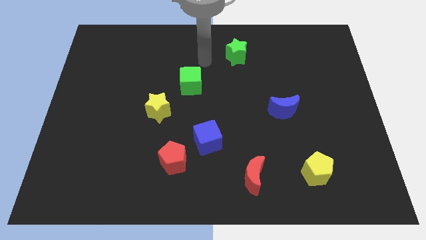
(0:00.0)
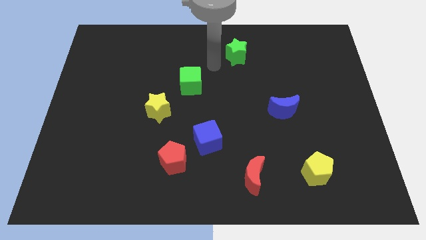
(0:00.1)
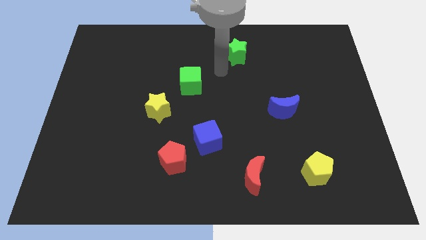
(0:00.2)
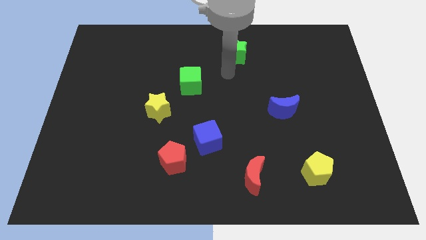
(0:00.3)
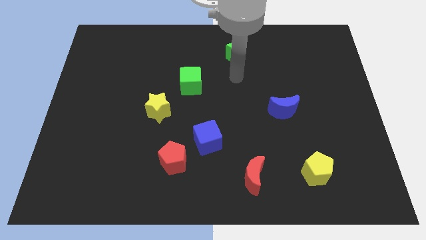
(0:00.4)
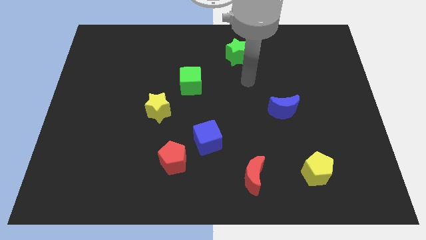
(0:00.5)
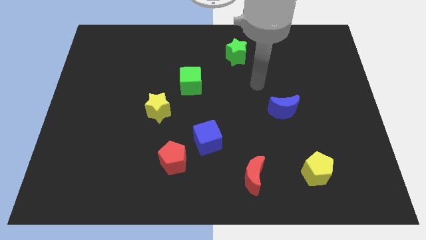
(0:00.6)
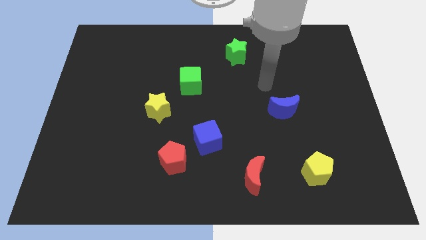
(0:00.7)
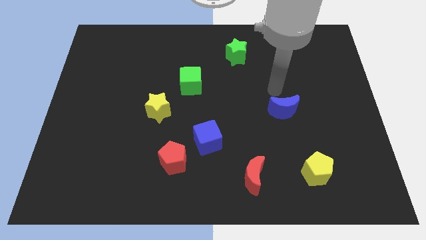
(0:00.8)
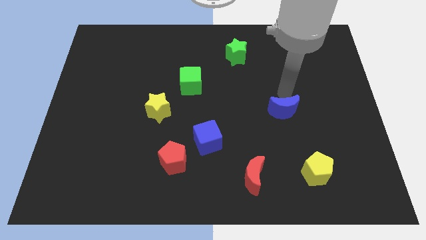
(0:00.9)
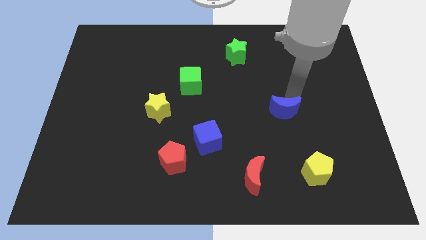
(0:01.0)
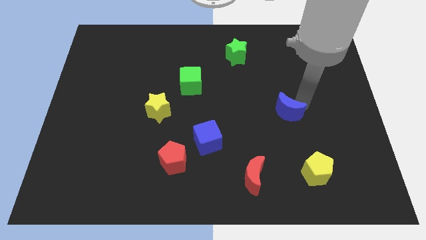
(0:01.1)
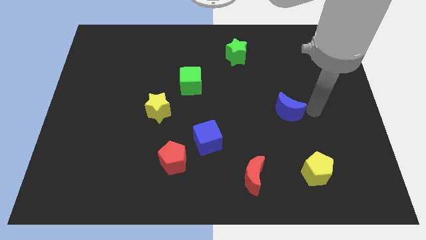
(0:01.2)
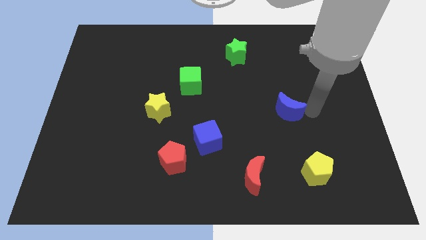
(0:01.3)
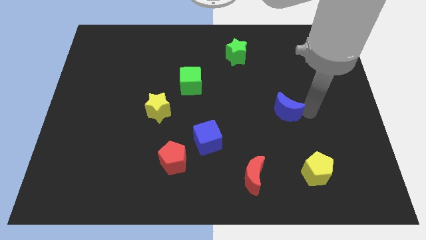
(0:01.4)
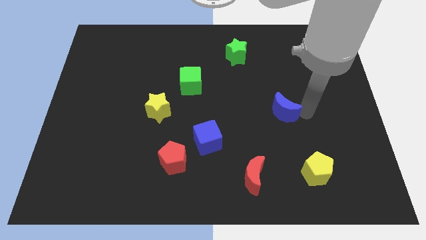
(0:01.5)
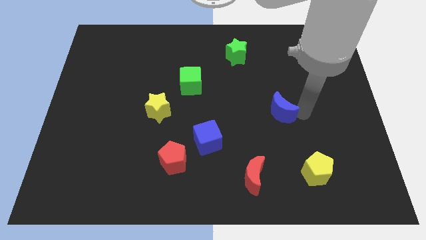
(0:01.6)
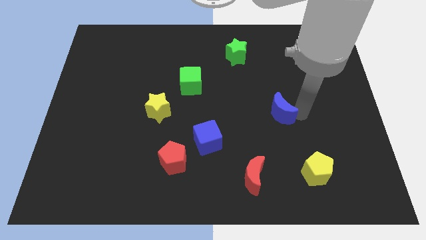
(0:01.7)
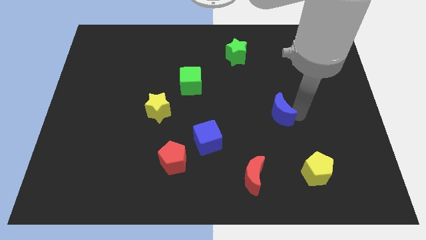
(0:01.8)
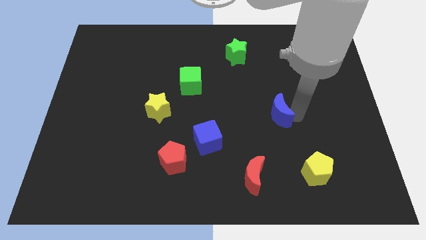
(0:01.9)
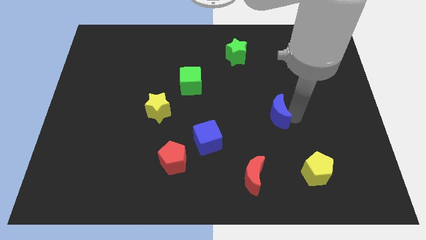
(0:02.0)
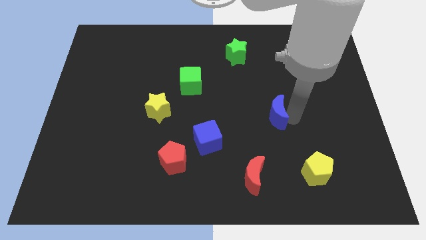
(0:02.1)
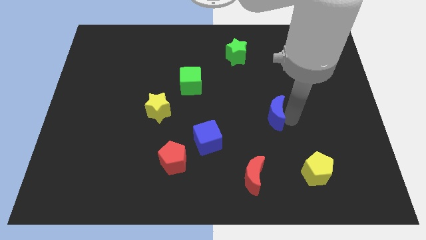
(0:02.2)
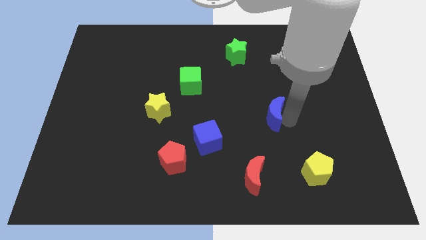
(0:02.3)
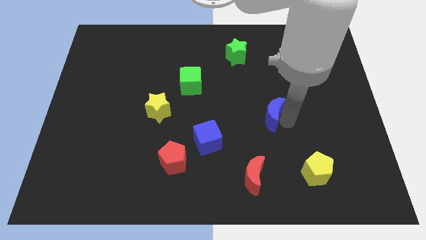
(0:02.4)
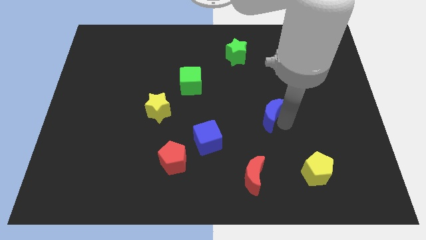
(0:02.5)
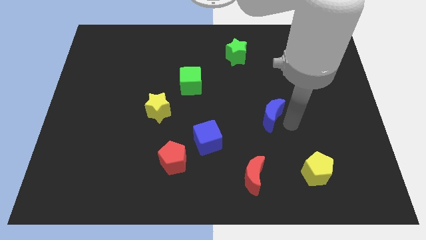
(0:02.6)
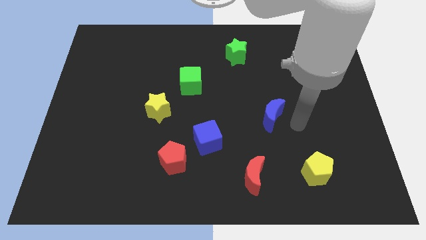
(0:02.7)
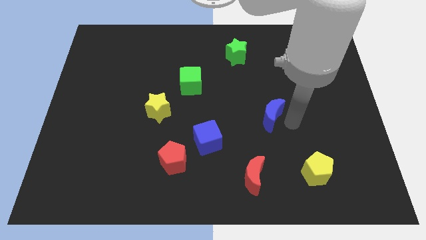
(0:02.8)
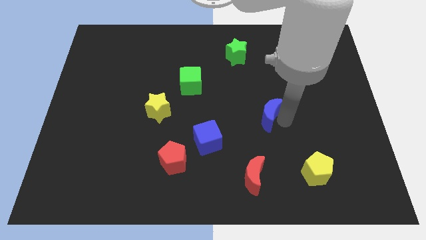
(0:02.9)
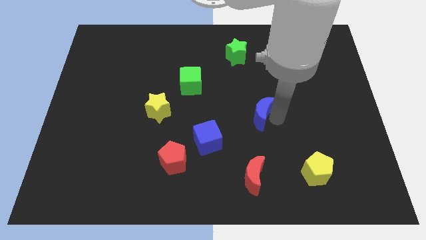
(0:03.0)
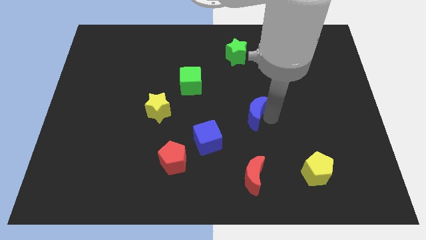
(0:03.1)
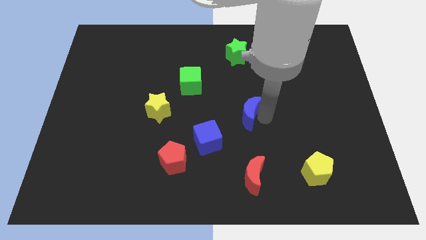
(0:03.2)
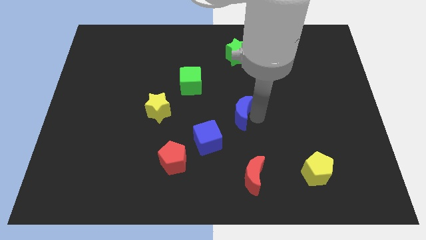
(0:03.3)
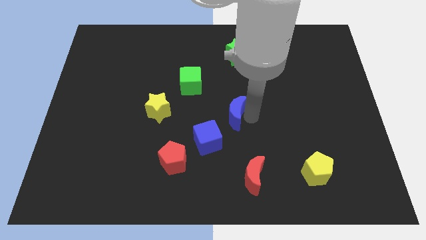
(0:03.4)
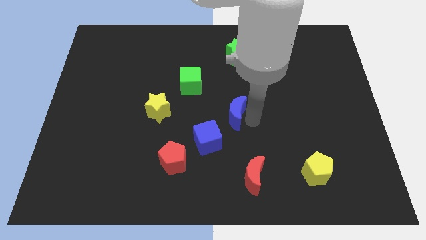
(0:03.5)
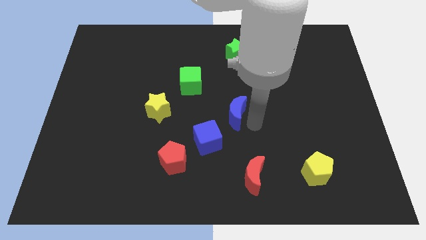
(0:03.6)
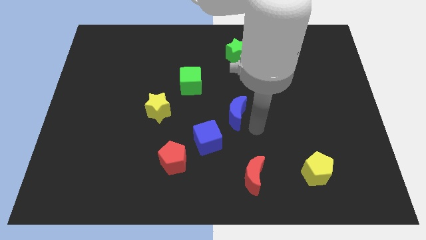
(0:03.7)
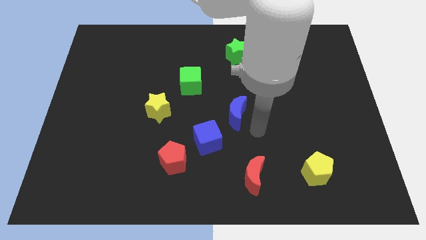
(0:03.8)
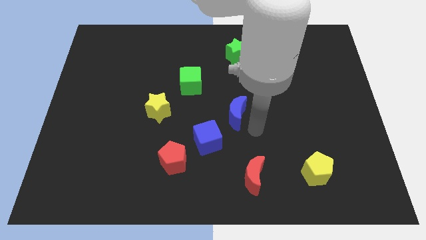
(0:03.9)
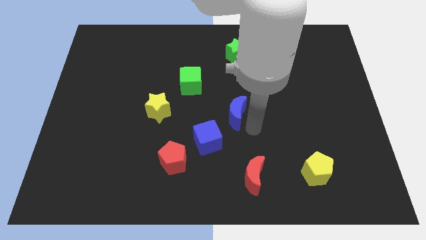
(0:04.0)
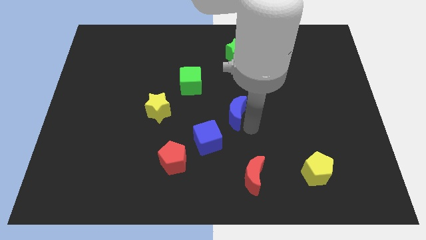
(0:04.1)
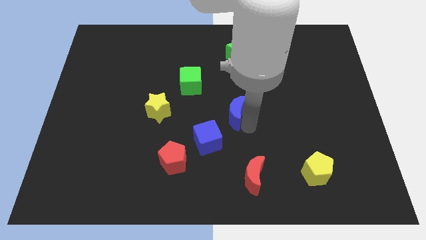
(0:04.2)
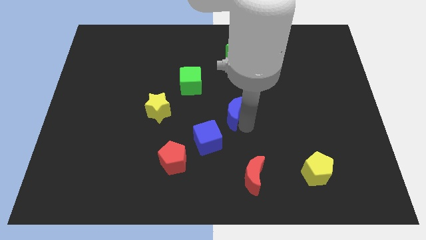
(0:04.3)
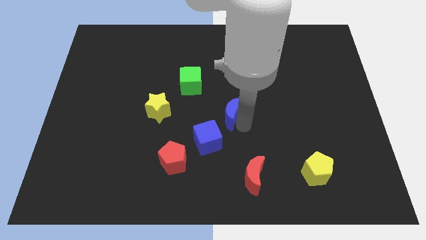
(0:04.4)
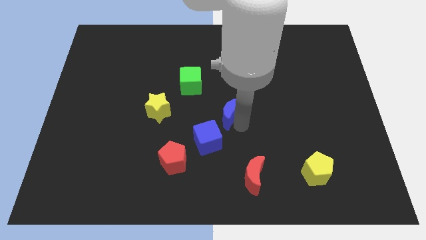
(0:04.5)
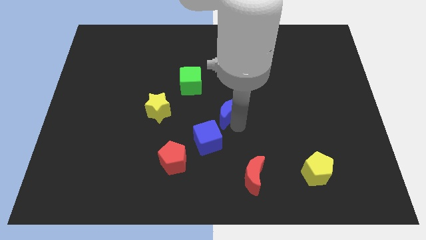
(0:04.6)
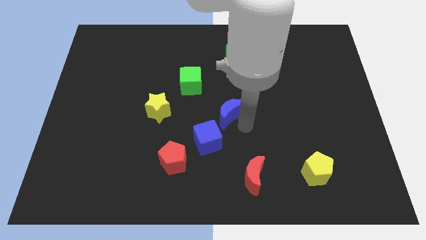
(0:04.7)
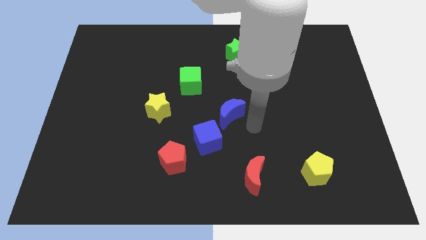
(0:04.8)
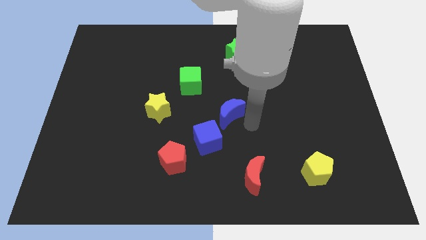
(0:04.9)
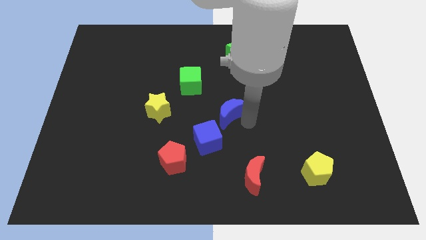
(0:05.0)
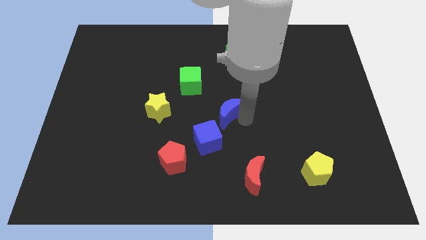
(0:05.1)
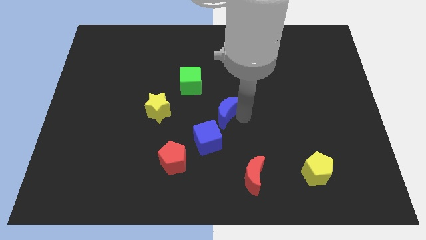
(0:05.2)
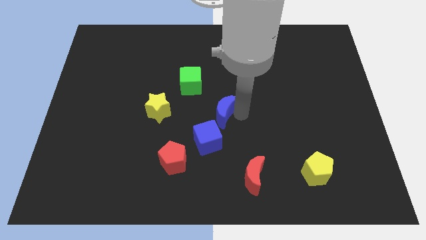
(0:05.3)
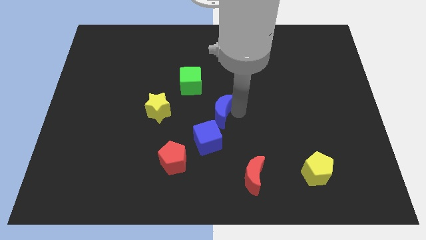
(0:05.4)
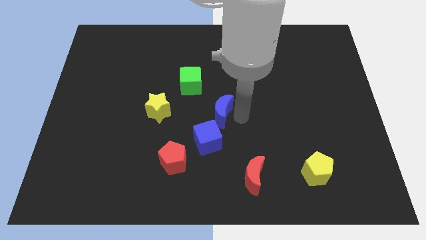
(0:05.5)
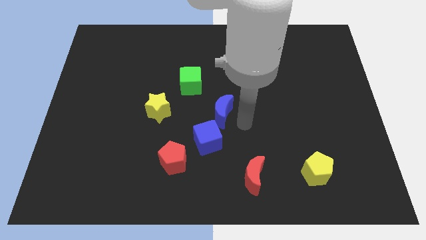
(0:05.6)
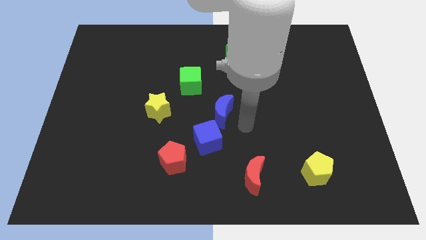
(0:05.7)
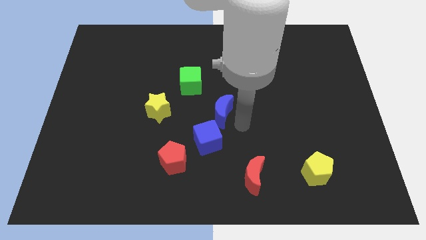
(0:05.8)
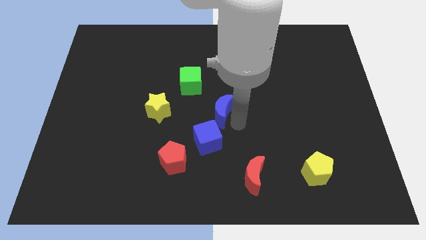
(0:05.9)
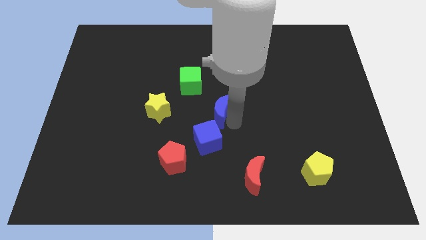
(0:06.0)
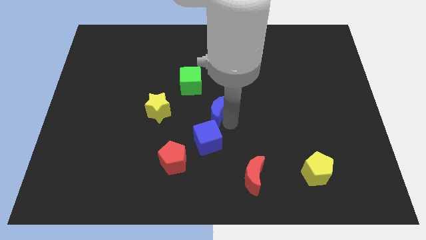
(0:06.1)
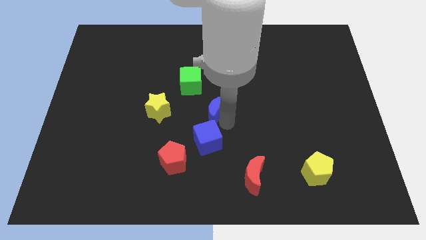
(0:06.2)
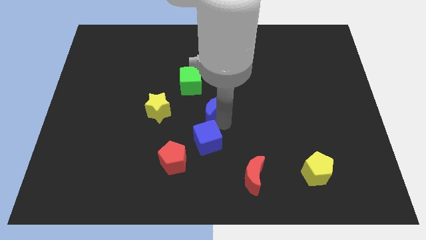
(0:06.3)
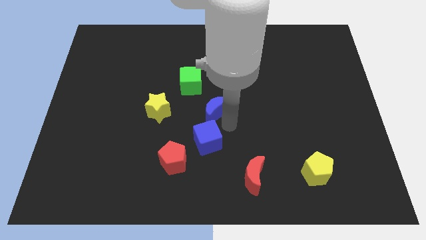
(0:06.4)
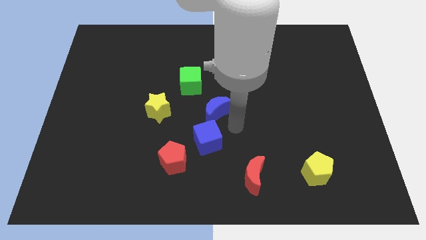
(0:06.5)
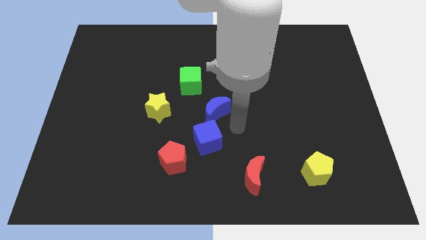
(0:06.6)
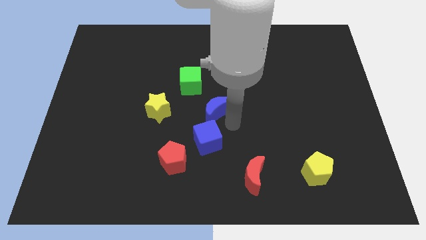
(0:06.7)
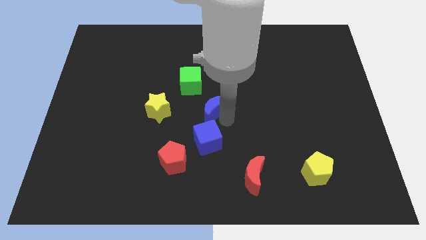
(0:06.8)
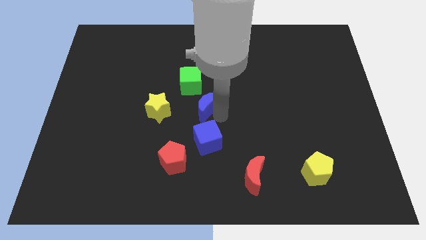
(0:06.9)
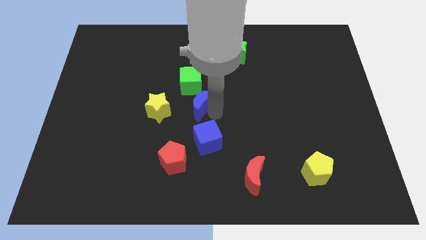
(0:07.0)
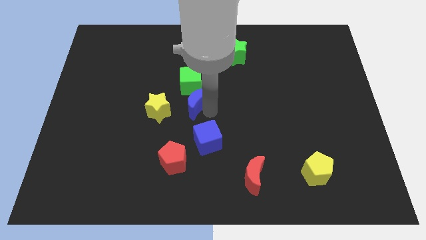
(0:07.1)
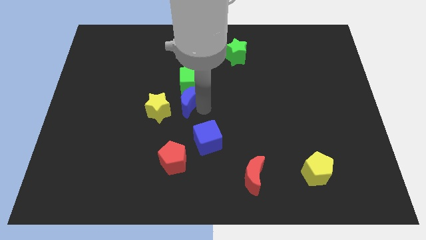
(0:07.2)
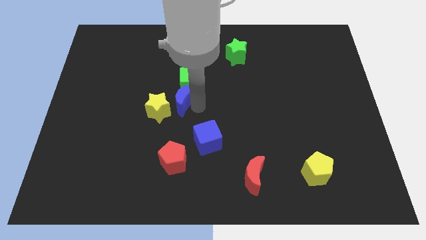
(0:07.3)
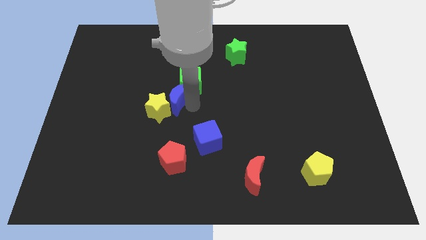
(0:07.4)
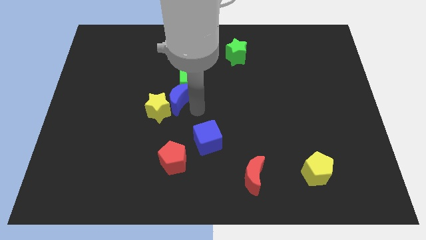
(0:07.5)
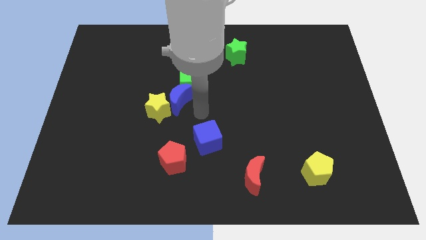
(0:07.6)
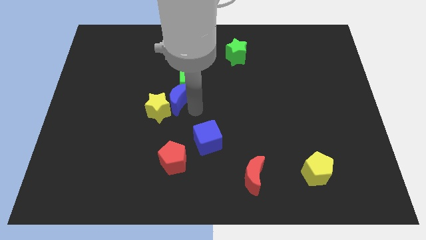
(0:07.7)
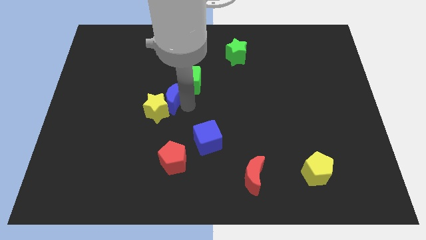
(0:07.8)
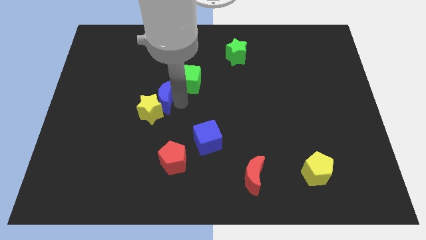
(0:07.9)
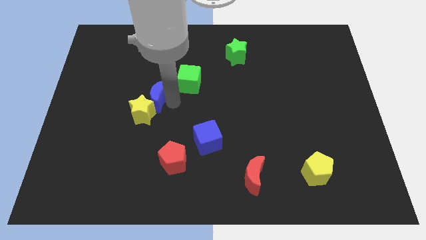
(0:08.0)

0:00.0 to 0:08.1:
move the blue moon to the left of the green cube
